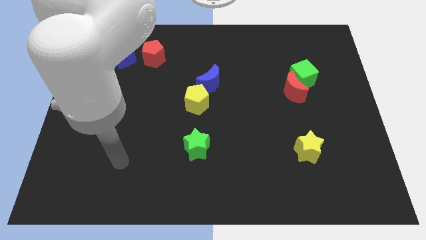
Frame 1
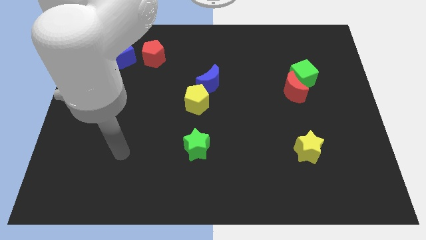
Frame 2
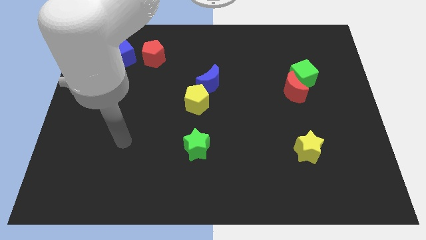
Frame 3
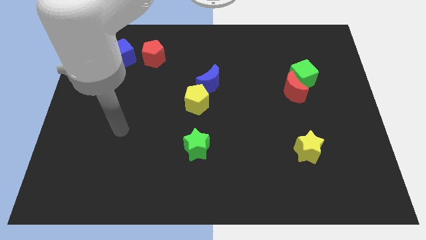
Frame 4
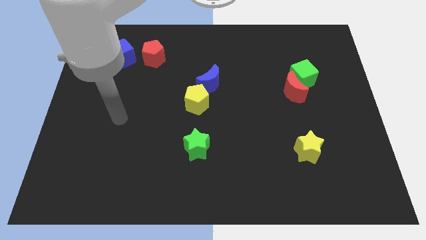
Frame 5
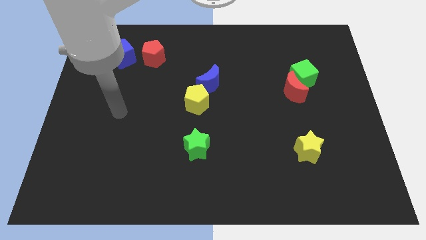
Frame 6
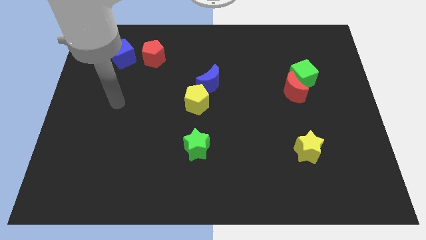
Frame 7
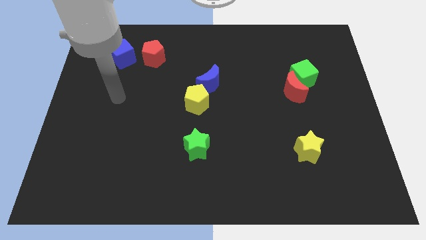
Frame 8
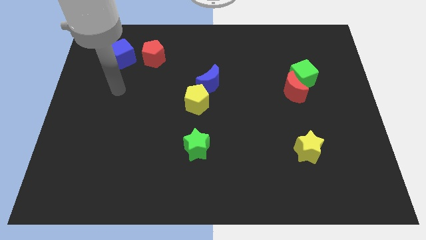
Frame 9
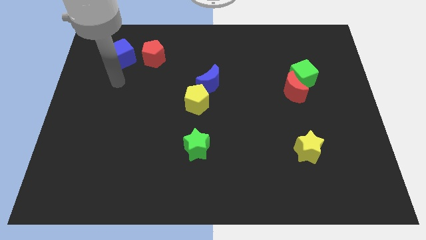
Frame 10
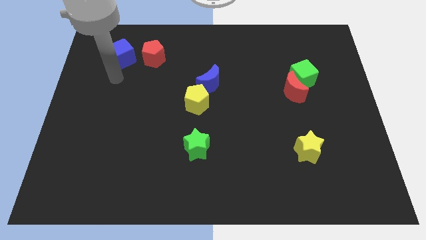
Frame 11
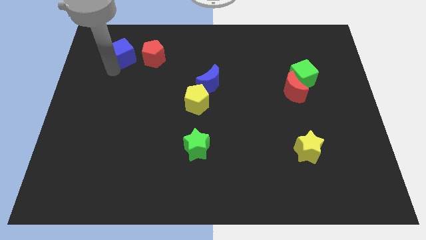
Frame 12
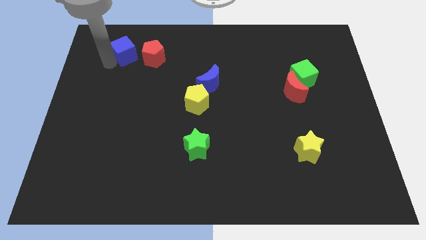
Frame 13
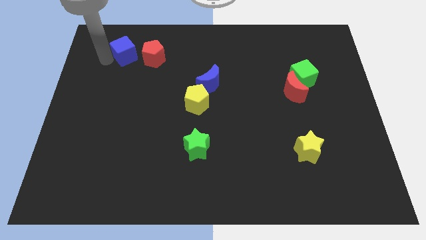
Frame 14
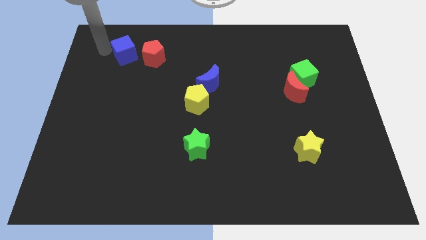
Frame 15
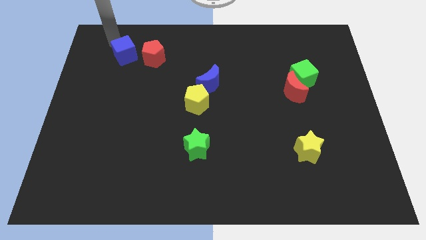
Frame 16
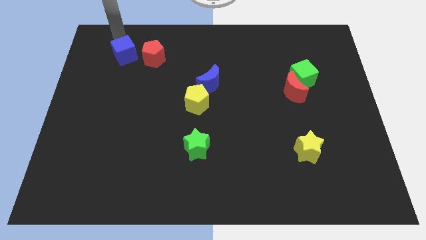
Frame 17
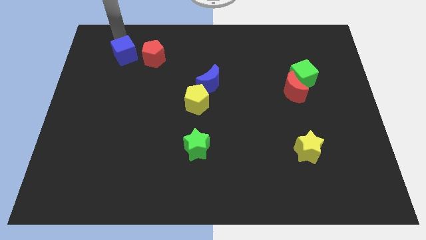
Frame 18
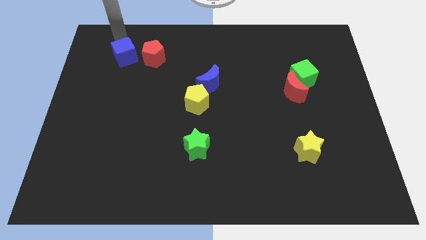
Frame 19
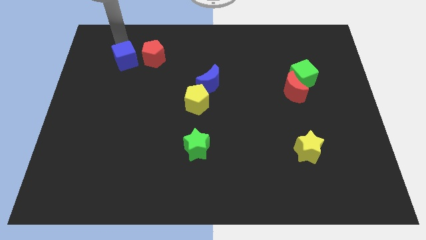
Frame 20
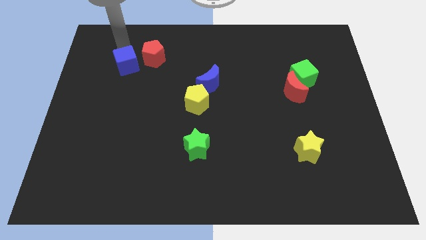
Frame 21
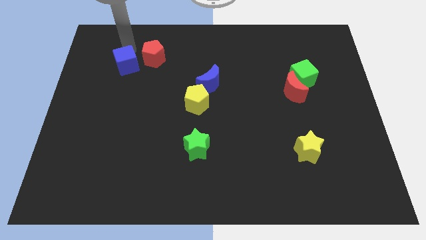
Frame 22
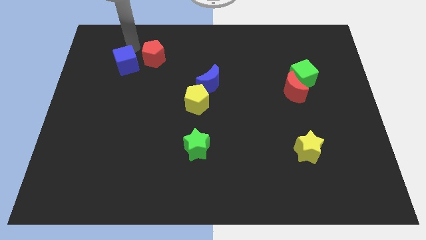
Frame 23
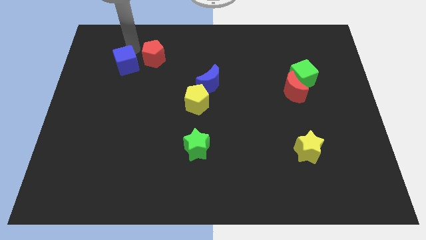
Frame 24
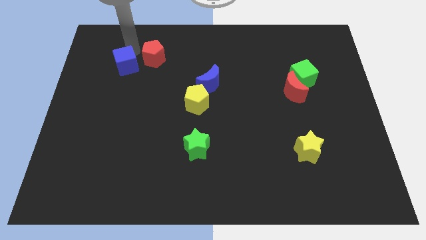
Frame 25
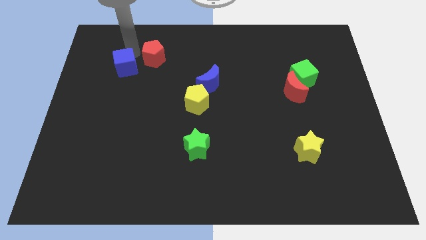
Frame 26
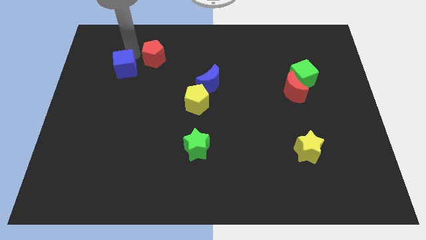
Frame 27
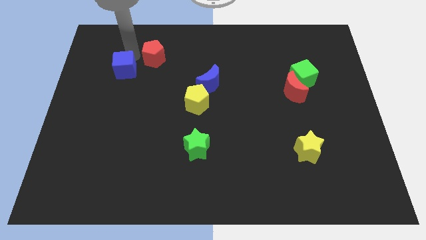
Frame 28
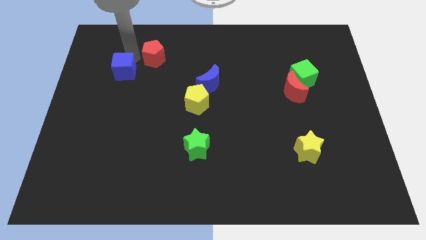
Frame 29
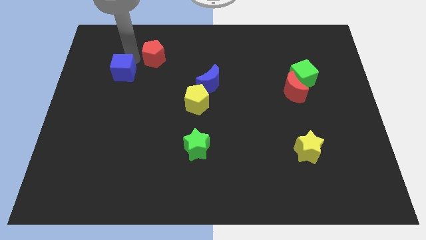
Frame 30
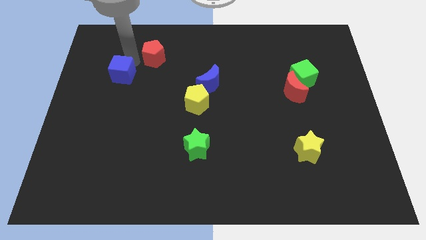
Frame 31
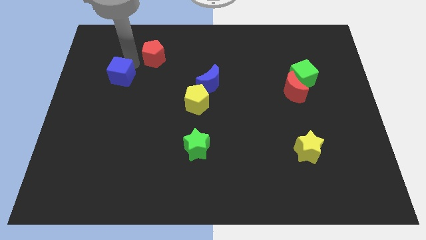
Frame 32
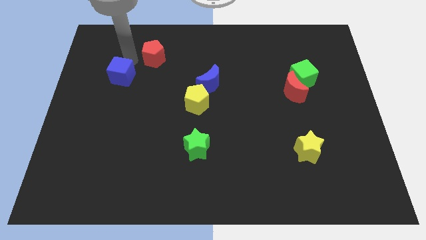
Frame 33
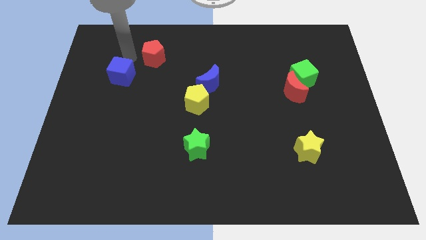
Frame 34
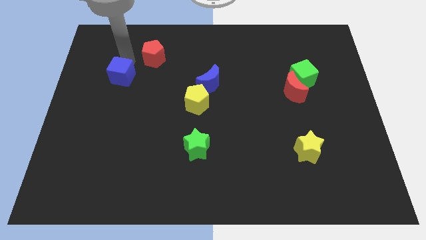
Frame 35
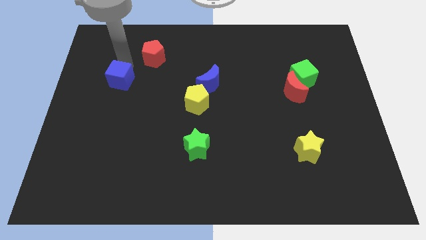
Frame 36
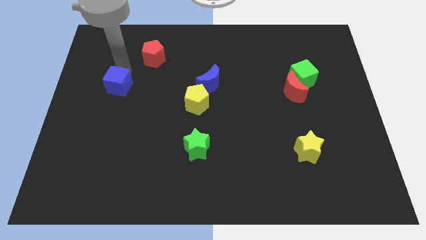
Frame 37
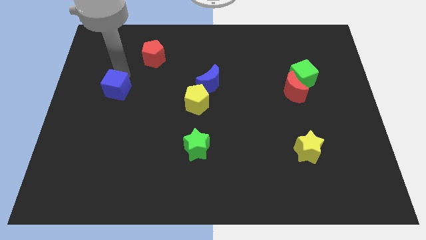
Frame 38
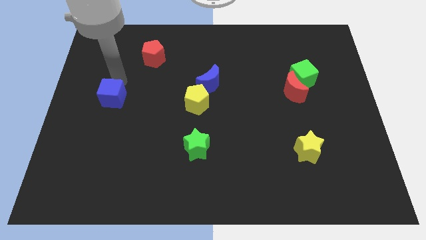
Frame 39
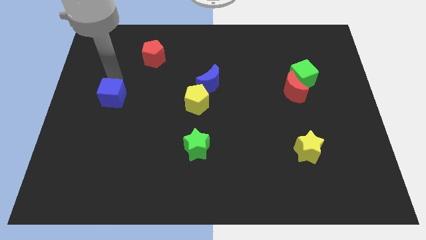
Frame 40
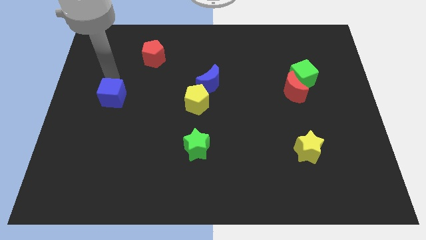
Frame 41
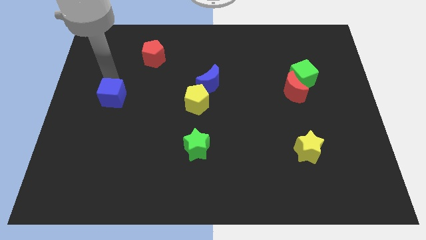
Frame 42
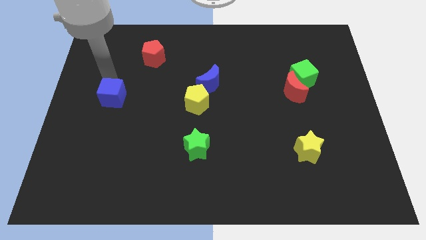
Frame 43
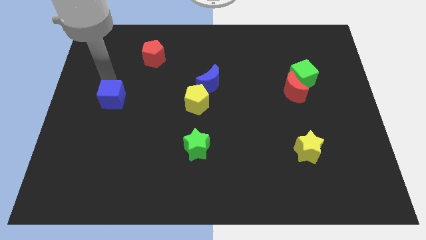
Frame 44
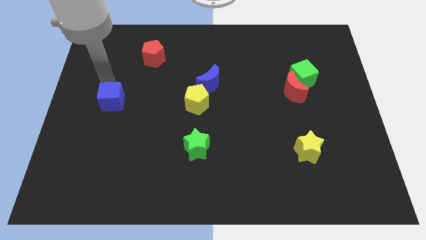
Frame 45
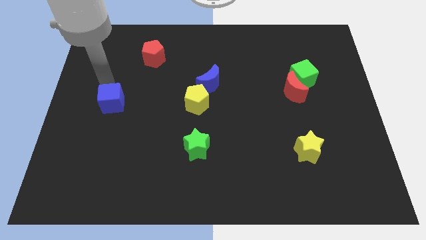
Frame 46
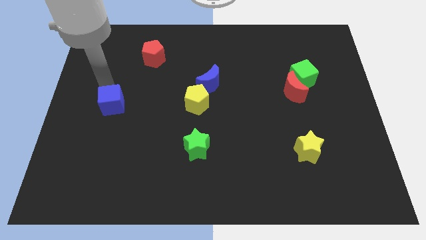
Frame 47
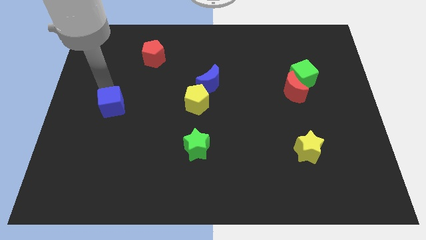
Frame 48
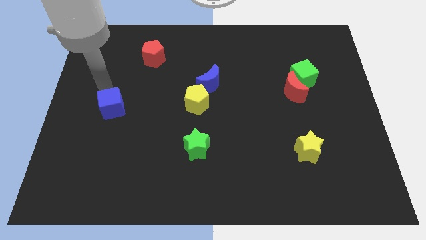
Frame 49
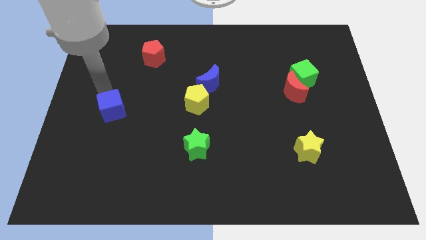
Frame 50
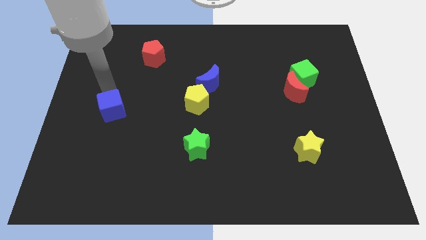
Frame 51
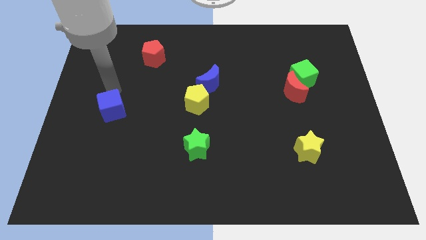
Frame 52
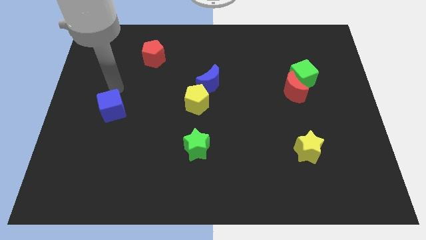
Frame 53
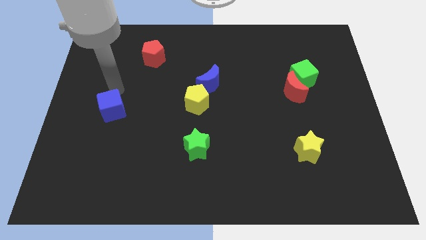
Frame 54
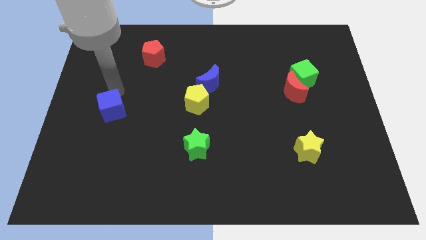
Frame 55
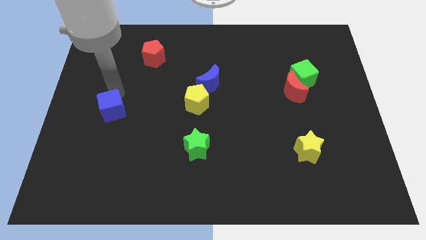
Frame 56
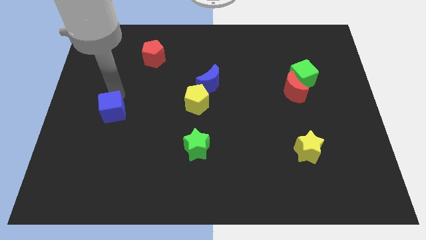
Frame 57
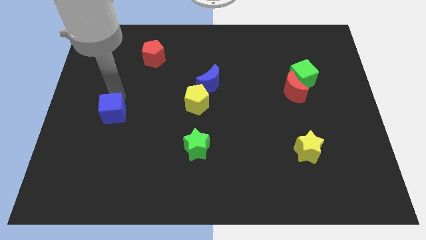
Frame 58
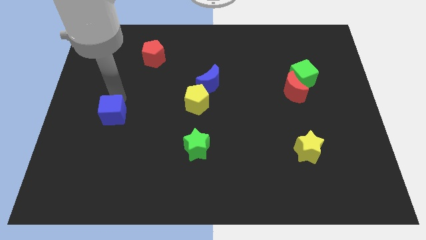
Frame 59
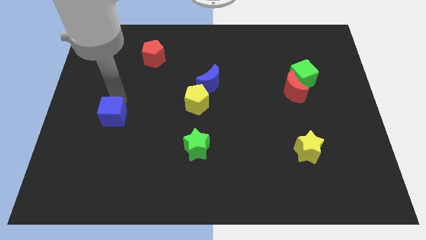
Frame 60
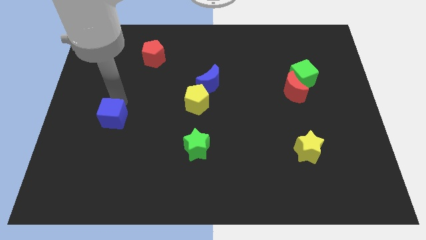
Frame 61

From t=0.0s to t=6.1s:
move the blue cube downwards

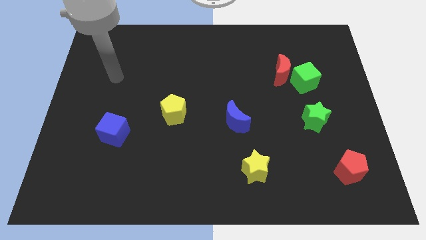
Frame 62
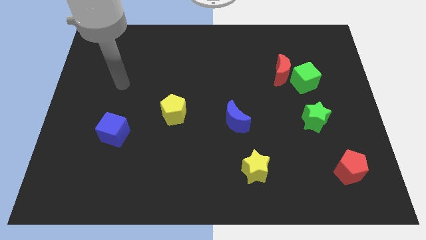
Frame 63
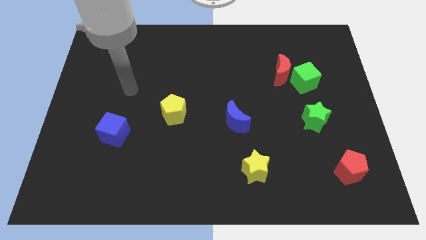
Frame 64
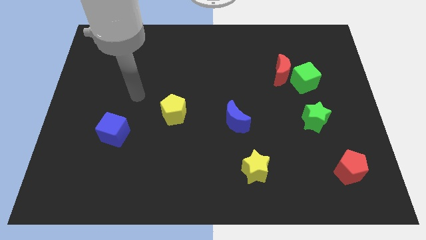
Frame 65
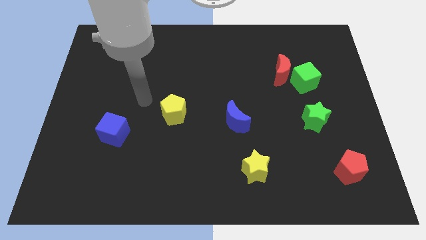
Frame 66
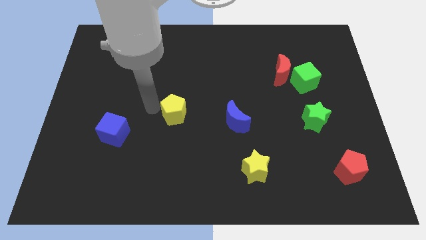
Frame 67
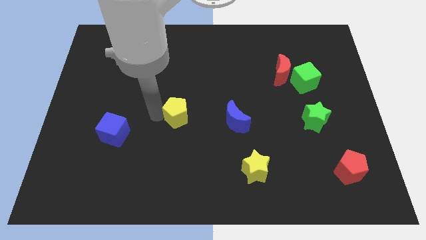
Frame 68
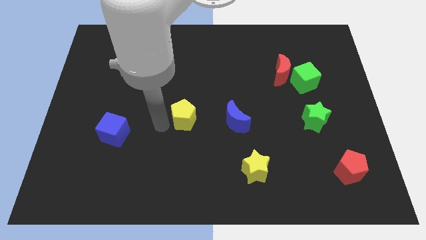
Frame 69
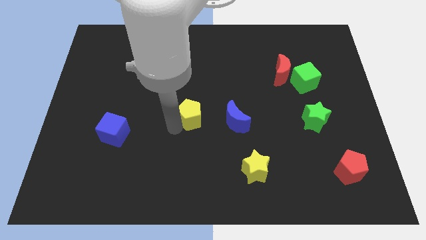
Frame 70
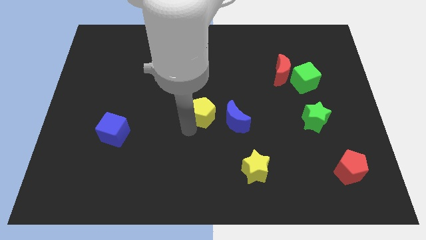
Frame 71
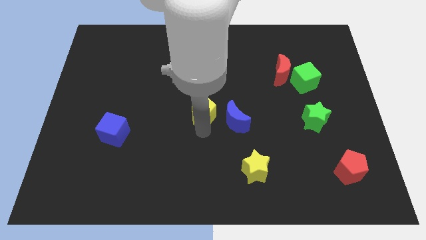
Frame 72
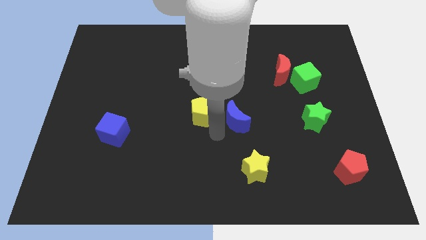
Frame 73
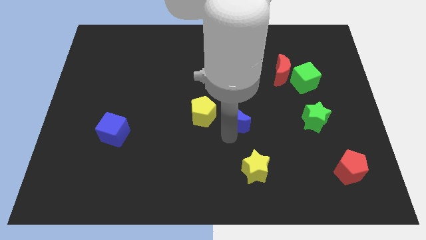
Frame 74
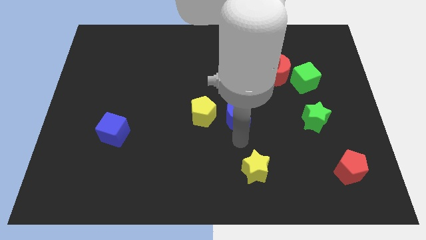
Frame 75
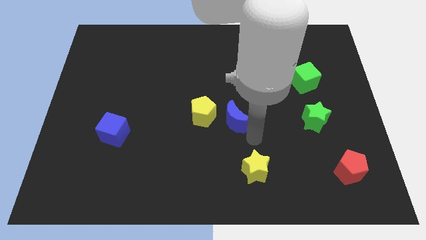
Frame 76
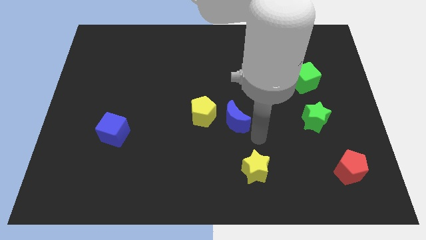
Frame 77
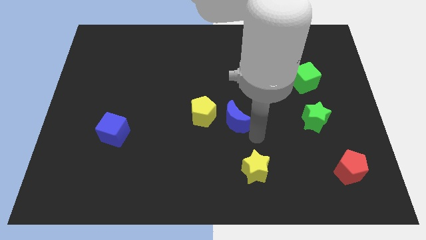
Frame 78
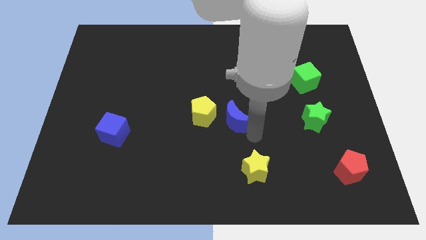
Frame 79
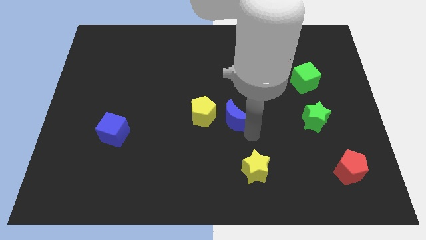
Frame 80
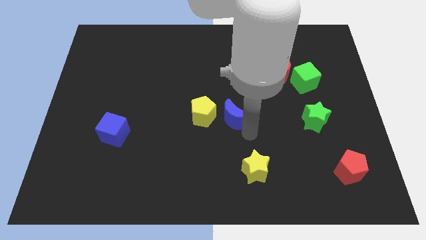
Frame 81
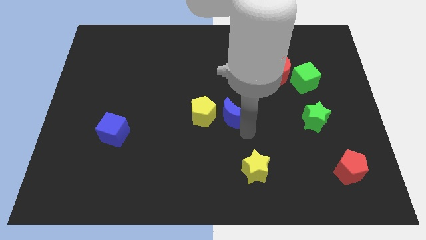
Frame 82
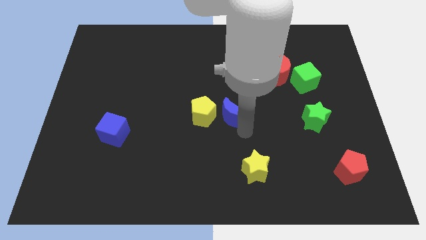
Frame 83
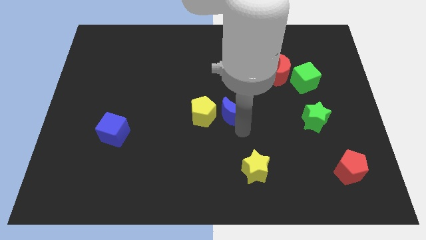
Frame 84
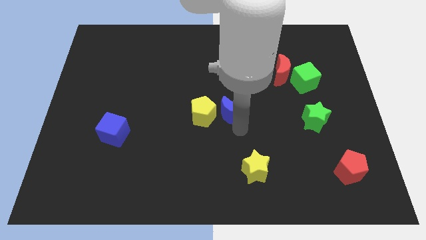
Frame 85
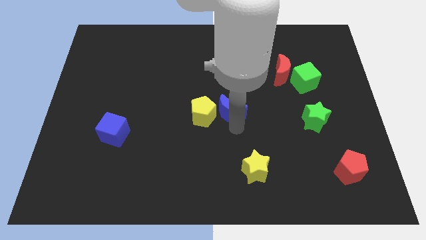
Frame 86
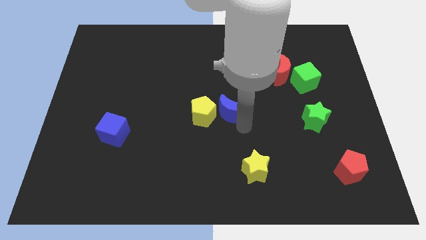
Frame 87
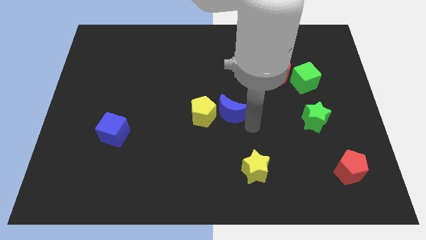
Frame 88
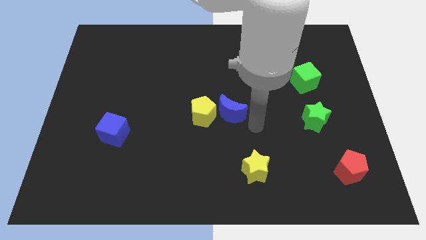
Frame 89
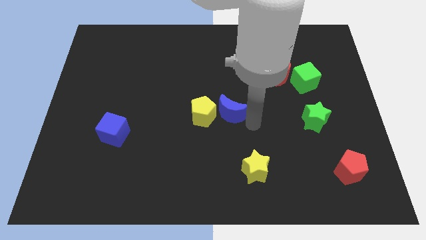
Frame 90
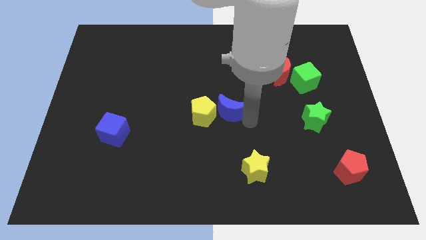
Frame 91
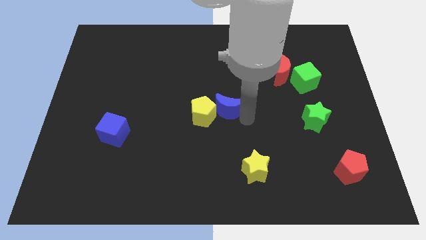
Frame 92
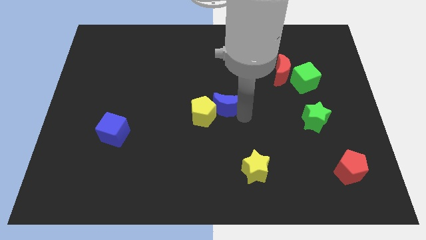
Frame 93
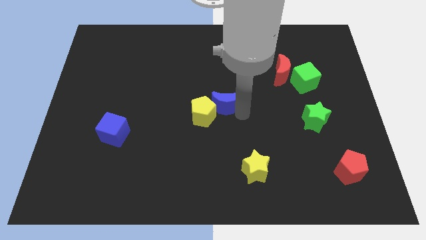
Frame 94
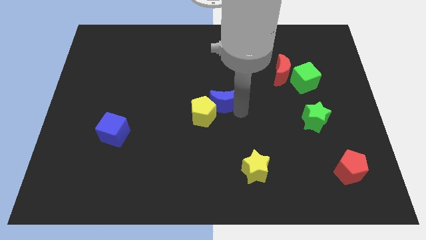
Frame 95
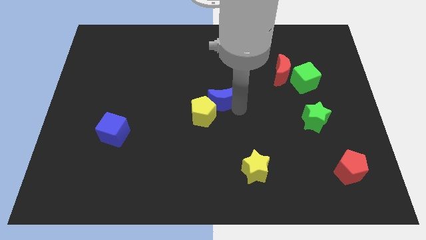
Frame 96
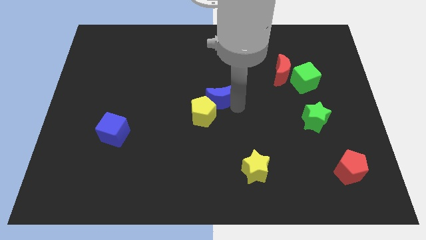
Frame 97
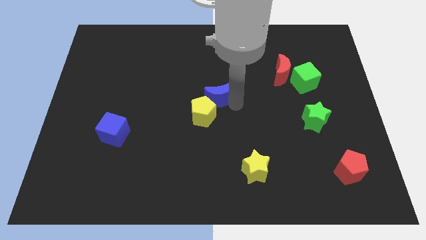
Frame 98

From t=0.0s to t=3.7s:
slightly push the blue moon up and then left
